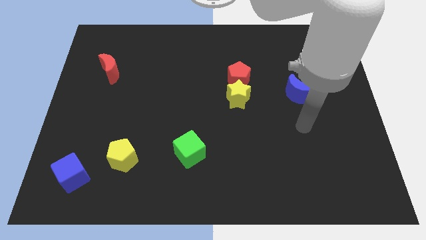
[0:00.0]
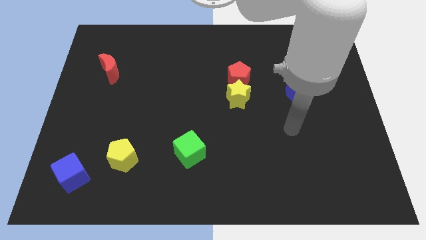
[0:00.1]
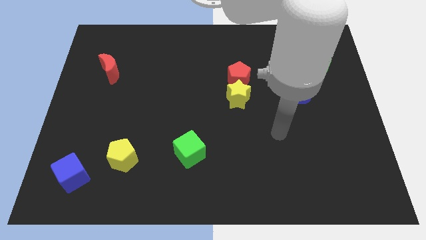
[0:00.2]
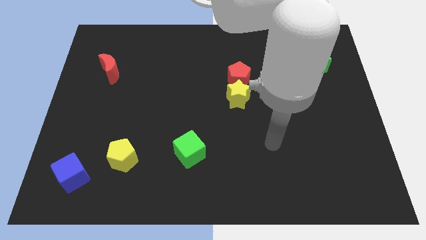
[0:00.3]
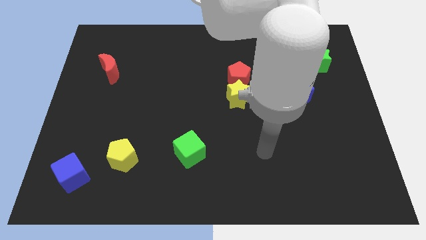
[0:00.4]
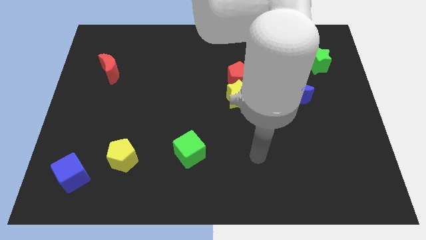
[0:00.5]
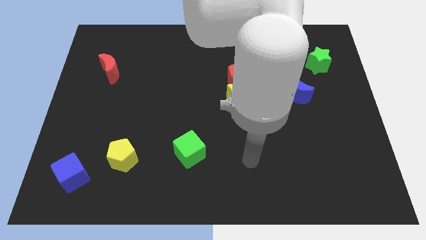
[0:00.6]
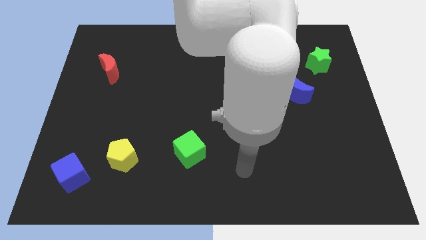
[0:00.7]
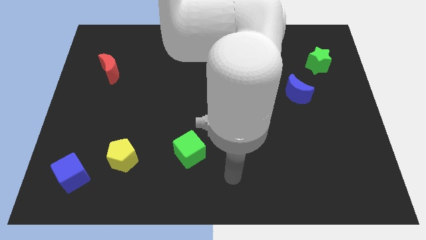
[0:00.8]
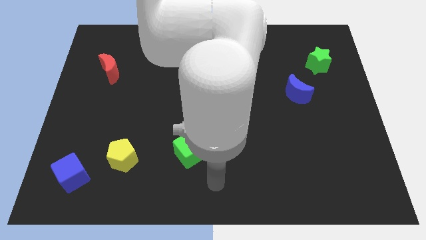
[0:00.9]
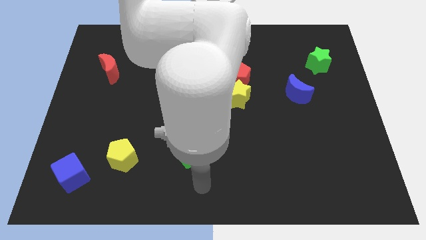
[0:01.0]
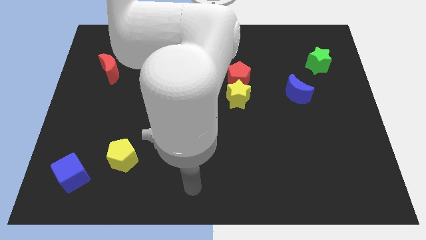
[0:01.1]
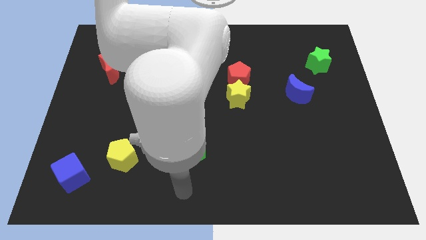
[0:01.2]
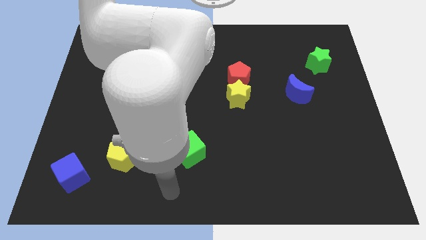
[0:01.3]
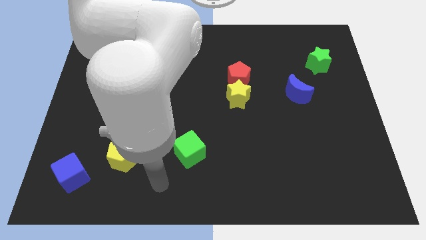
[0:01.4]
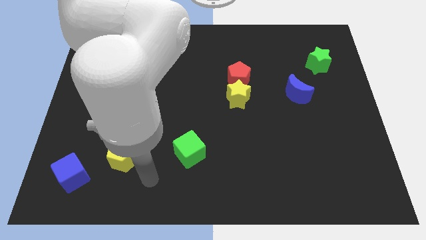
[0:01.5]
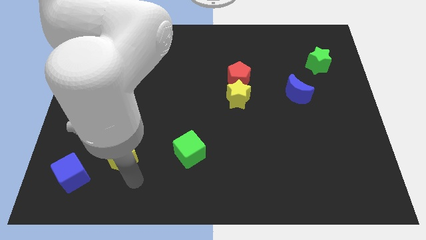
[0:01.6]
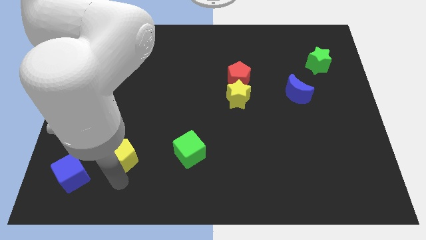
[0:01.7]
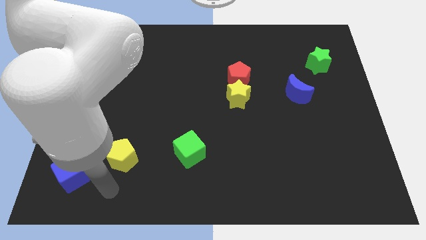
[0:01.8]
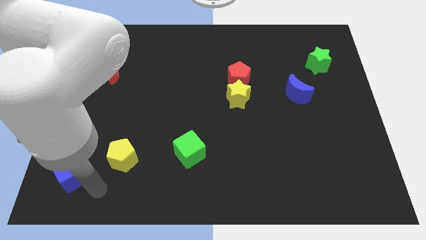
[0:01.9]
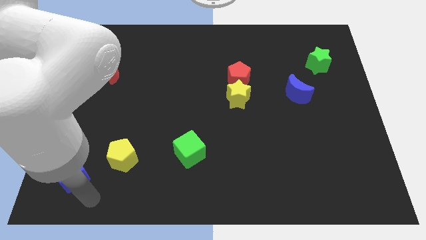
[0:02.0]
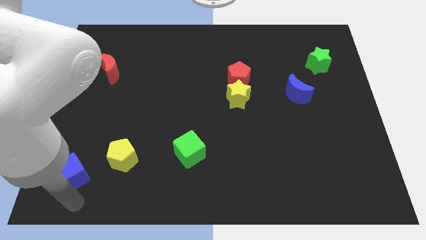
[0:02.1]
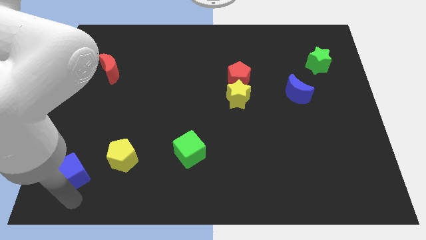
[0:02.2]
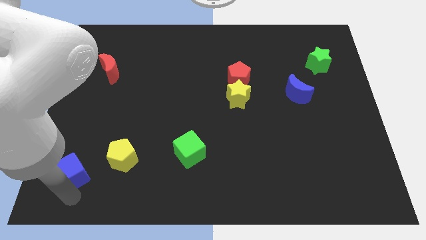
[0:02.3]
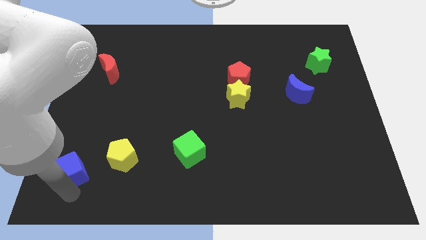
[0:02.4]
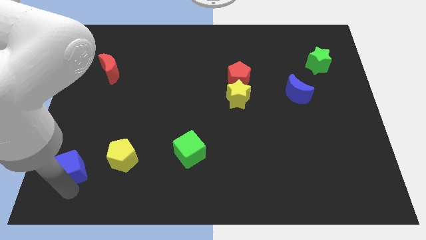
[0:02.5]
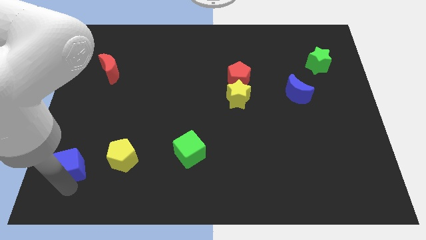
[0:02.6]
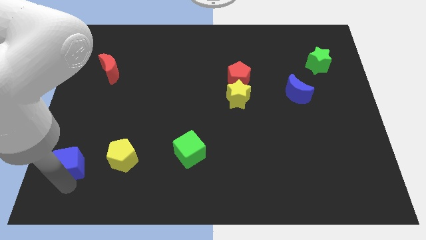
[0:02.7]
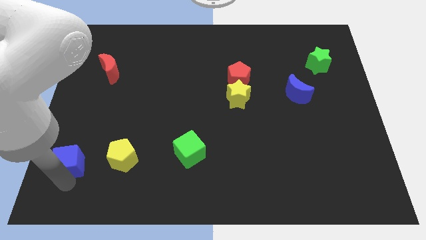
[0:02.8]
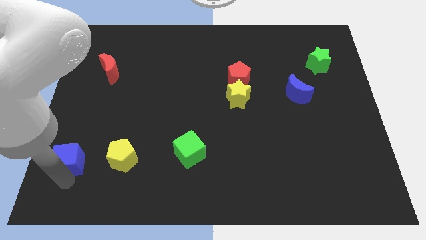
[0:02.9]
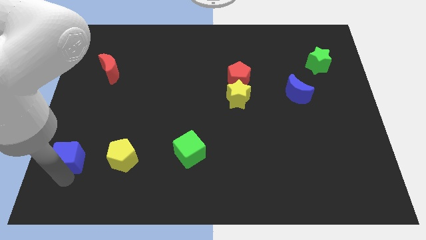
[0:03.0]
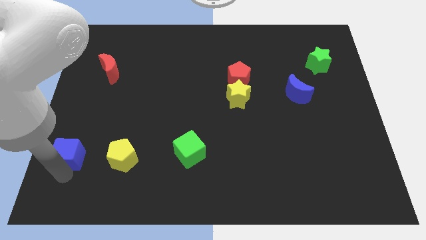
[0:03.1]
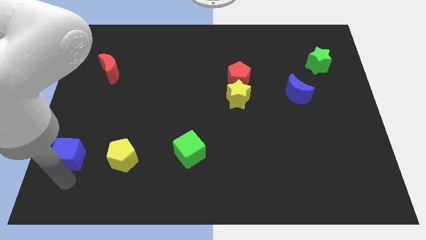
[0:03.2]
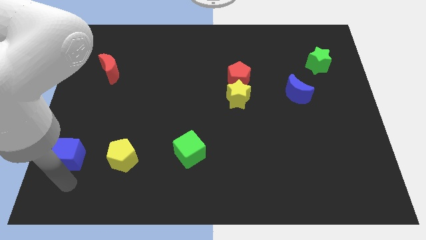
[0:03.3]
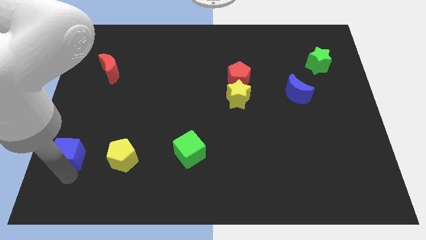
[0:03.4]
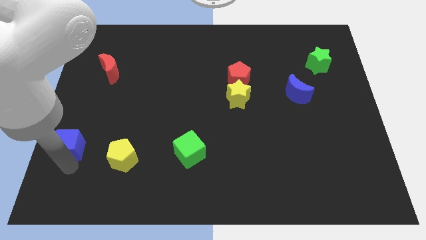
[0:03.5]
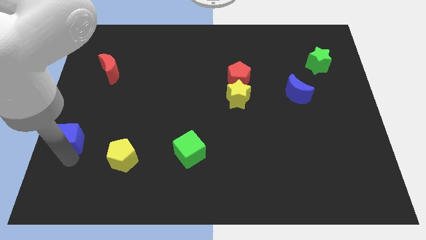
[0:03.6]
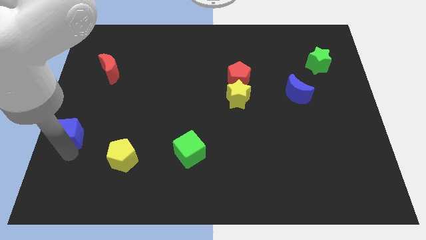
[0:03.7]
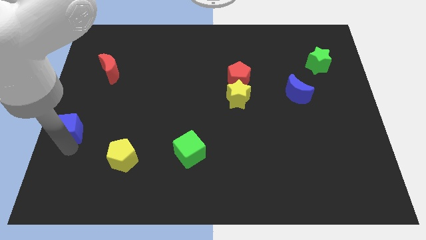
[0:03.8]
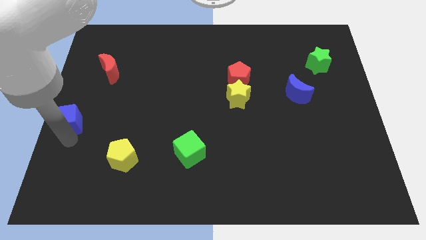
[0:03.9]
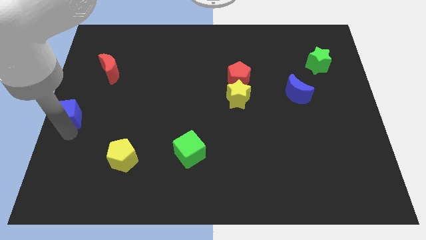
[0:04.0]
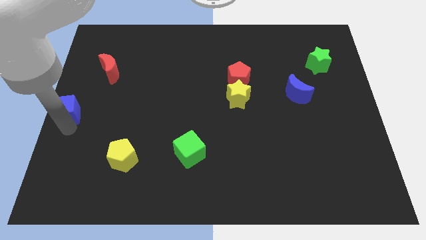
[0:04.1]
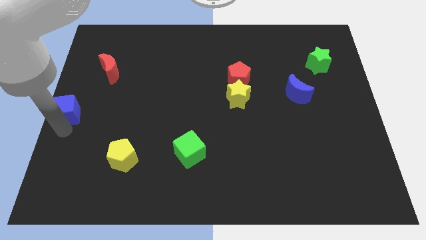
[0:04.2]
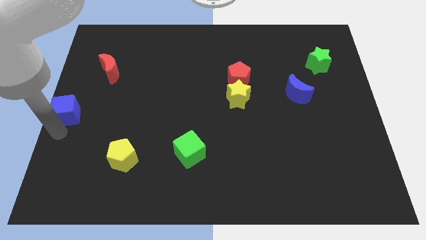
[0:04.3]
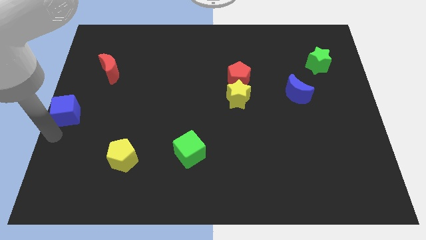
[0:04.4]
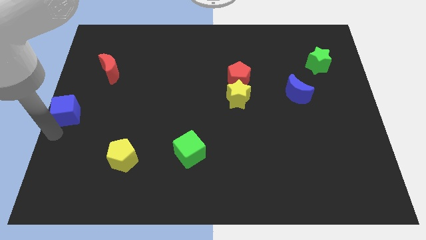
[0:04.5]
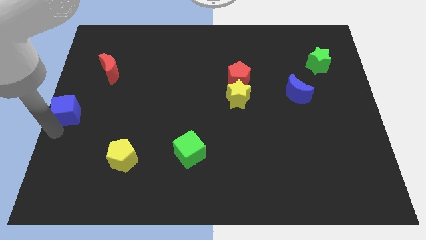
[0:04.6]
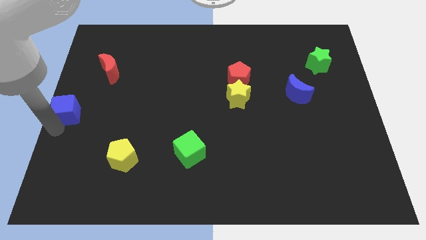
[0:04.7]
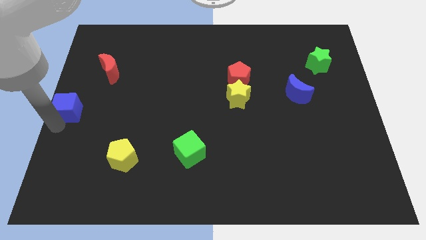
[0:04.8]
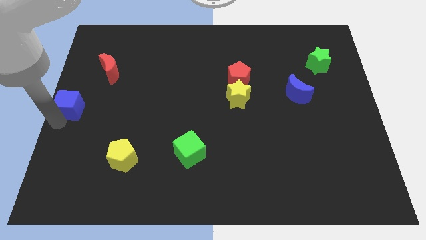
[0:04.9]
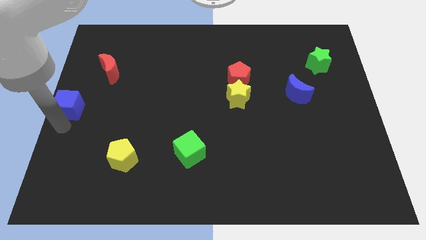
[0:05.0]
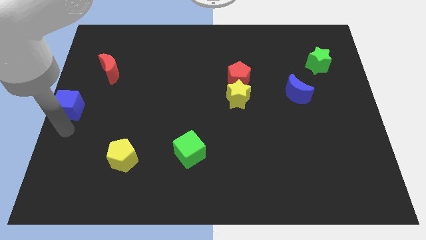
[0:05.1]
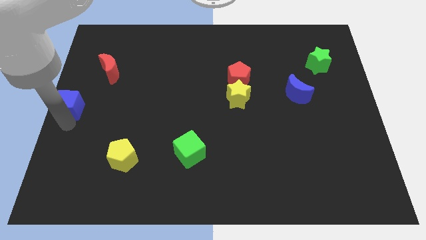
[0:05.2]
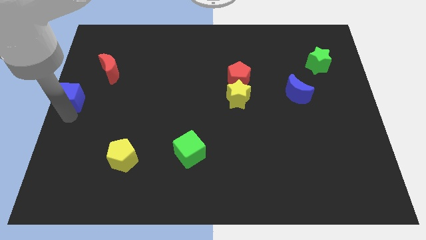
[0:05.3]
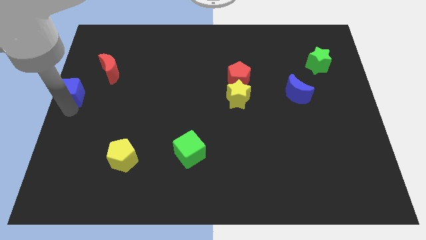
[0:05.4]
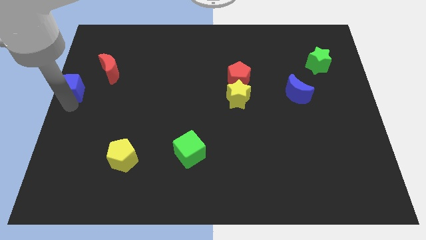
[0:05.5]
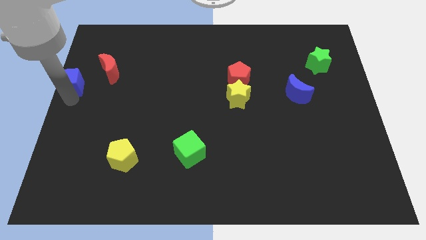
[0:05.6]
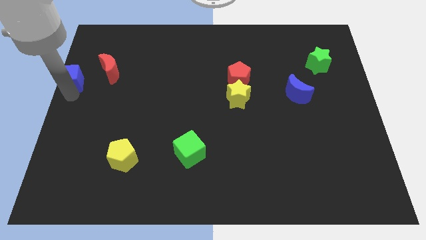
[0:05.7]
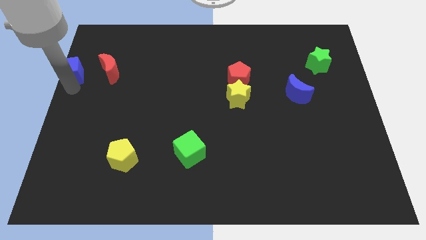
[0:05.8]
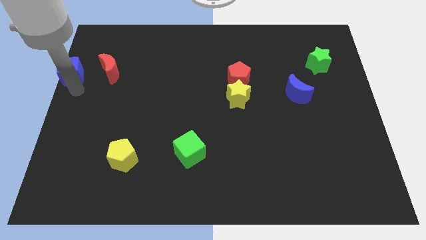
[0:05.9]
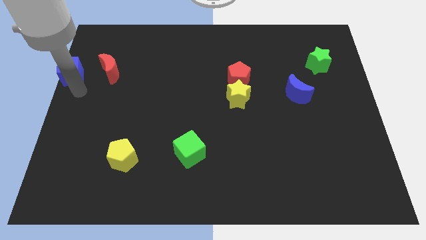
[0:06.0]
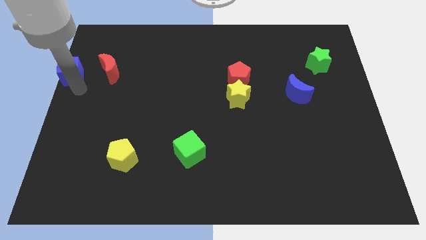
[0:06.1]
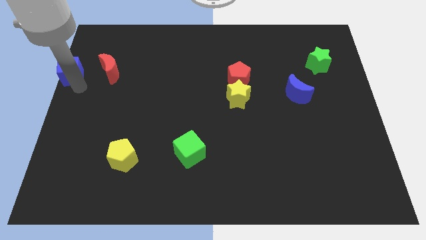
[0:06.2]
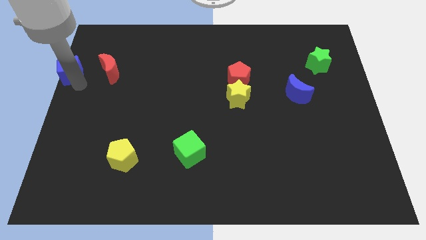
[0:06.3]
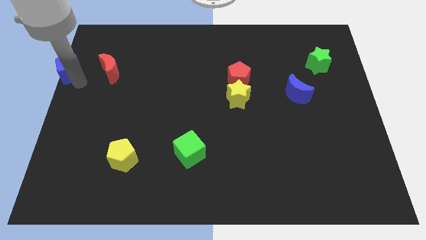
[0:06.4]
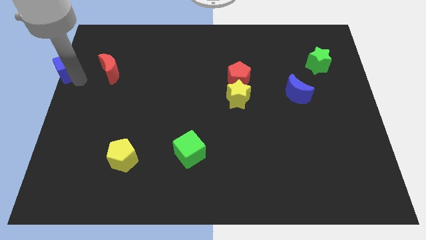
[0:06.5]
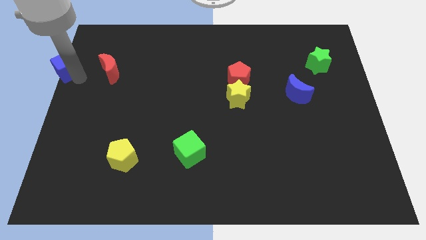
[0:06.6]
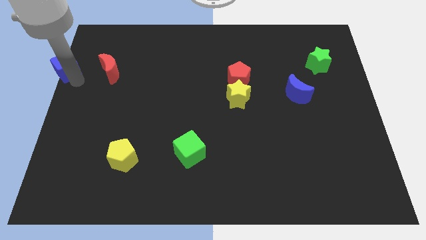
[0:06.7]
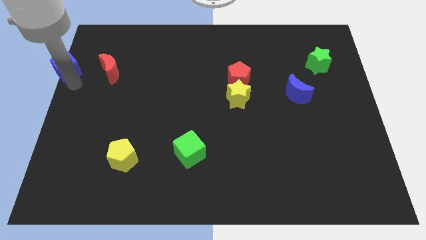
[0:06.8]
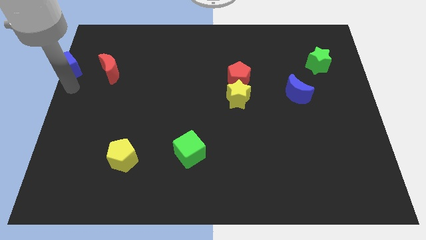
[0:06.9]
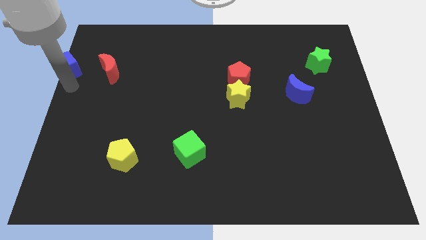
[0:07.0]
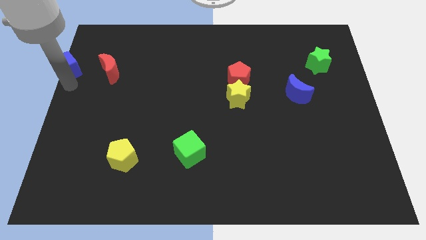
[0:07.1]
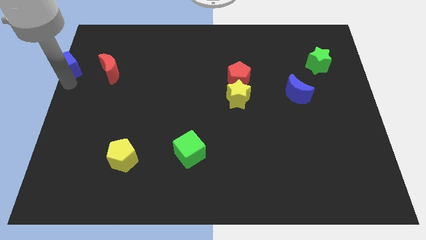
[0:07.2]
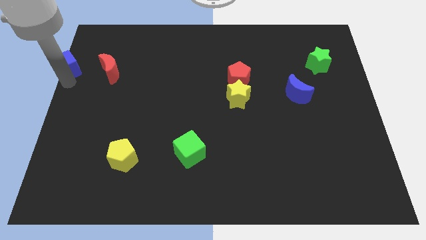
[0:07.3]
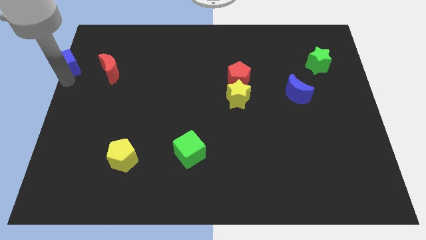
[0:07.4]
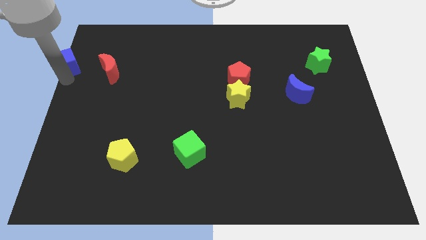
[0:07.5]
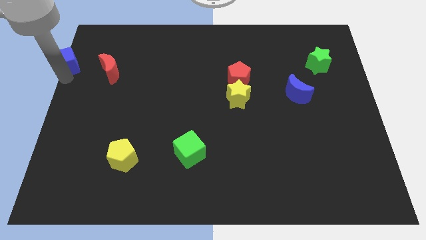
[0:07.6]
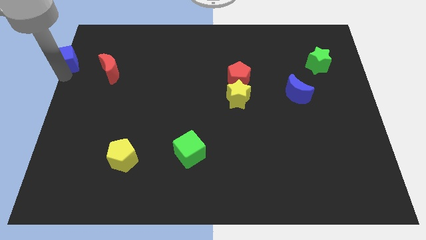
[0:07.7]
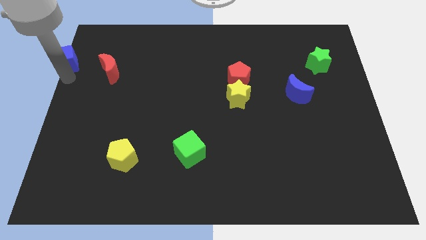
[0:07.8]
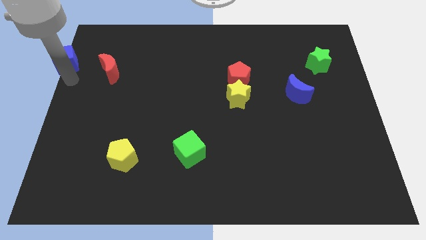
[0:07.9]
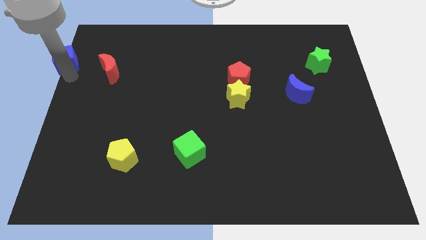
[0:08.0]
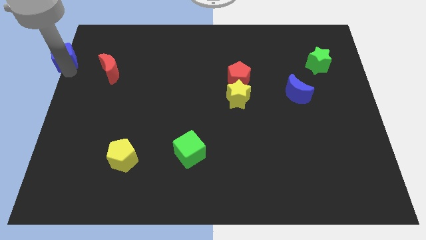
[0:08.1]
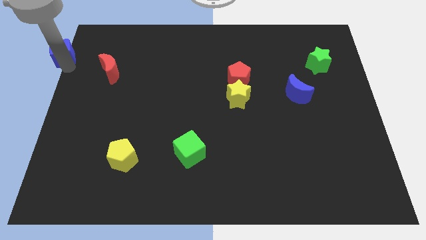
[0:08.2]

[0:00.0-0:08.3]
slide the blue cube to the upper left corner
